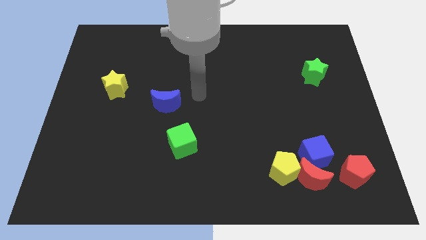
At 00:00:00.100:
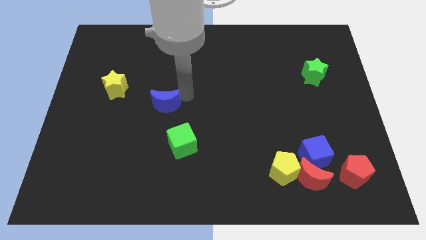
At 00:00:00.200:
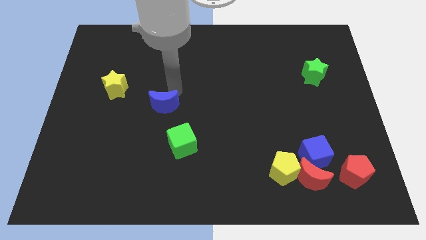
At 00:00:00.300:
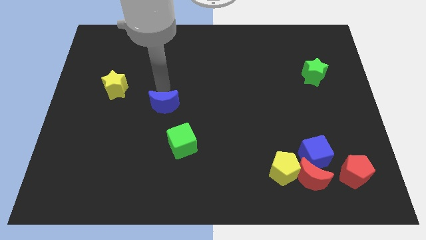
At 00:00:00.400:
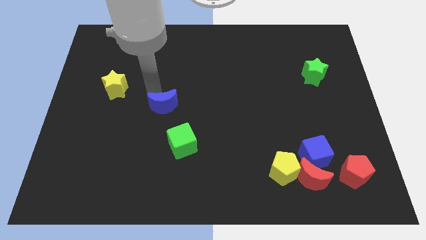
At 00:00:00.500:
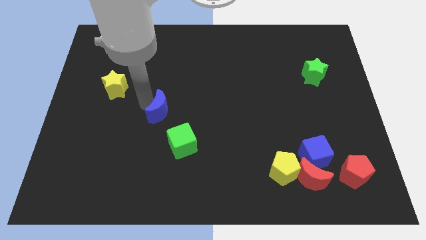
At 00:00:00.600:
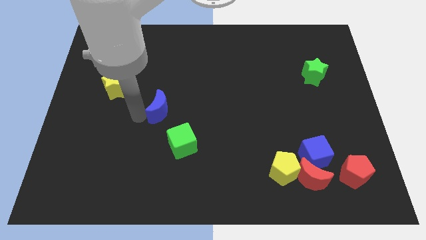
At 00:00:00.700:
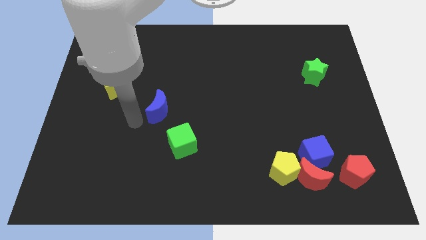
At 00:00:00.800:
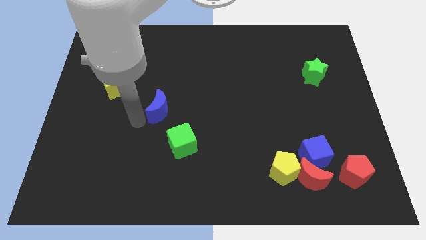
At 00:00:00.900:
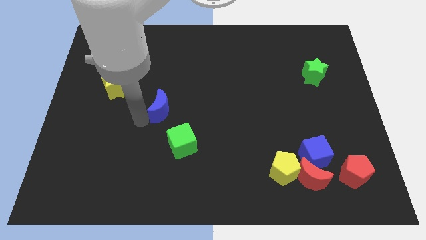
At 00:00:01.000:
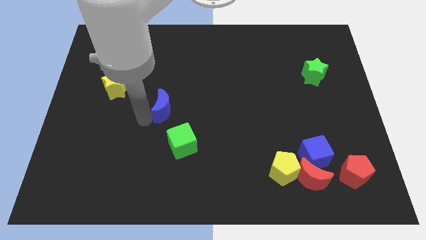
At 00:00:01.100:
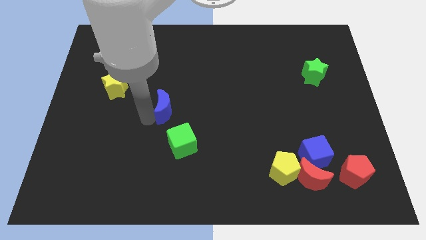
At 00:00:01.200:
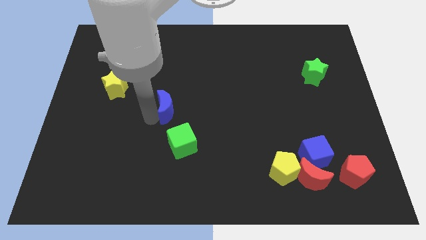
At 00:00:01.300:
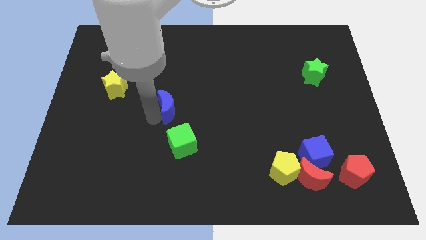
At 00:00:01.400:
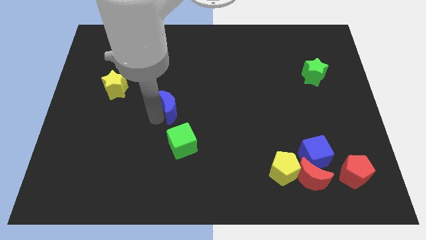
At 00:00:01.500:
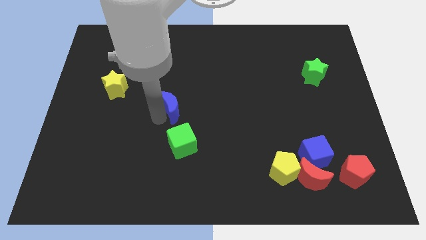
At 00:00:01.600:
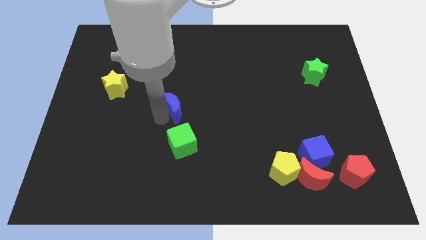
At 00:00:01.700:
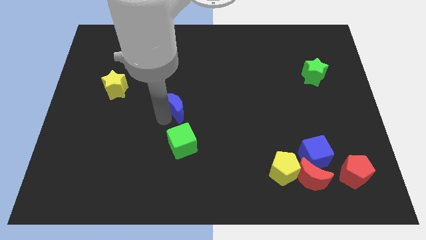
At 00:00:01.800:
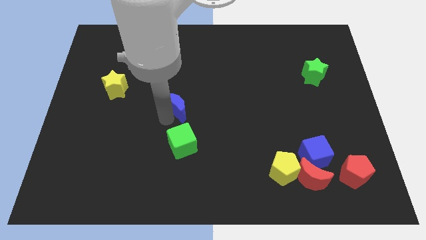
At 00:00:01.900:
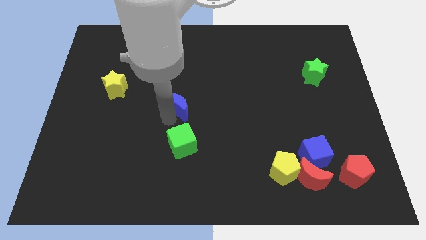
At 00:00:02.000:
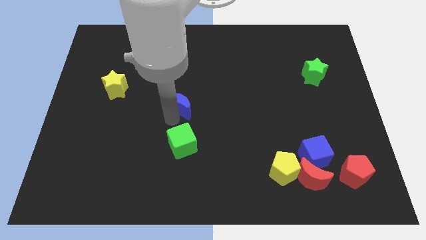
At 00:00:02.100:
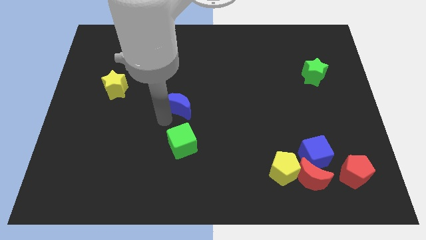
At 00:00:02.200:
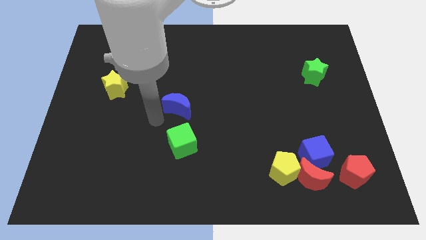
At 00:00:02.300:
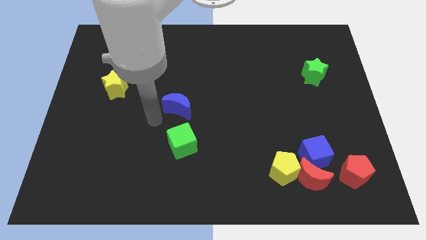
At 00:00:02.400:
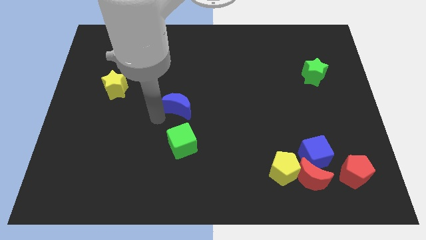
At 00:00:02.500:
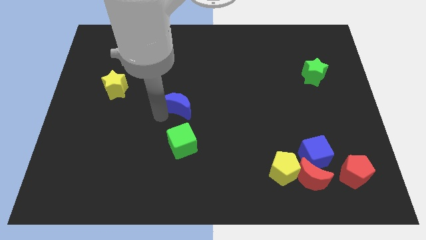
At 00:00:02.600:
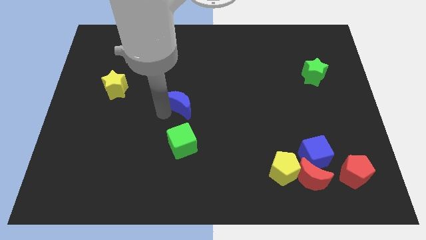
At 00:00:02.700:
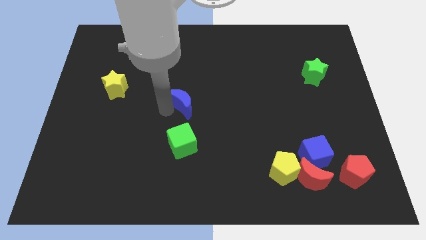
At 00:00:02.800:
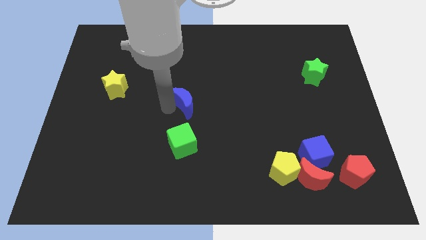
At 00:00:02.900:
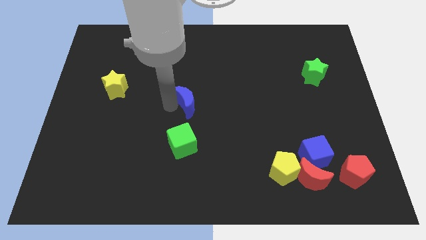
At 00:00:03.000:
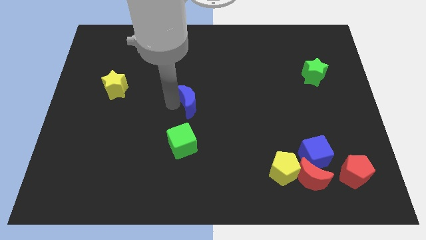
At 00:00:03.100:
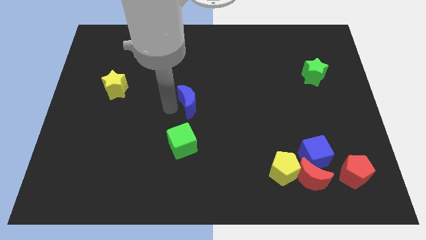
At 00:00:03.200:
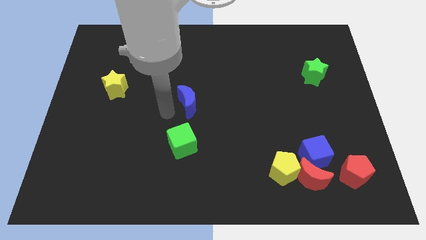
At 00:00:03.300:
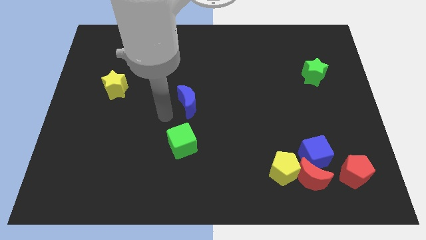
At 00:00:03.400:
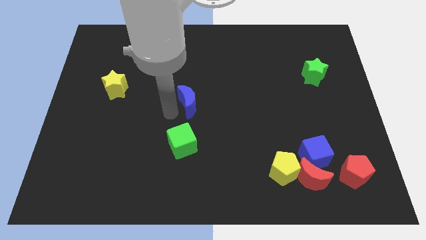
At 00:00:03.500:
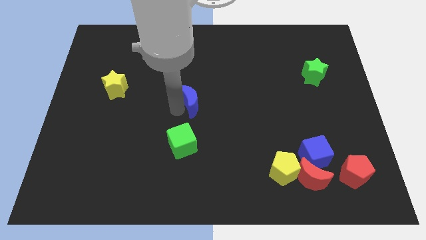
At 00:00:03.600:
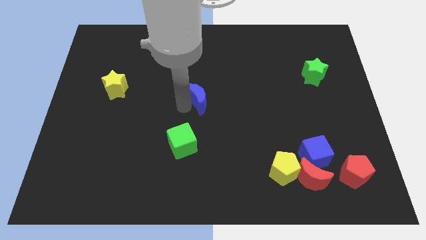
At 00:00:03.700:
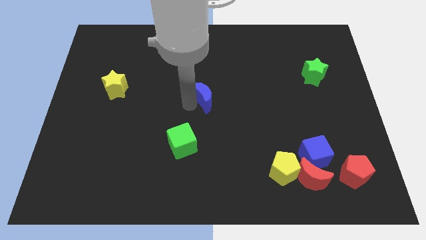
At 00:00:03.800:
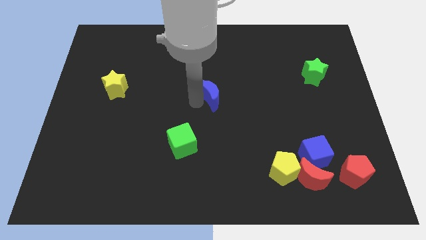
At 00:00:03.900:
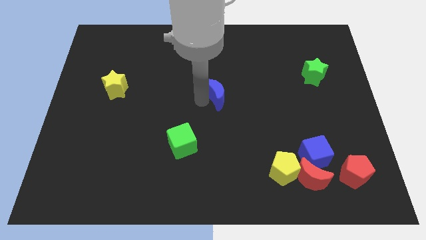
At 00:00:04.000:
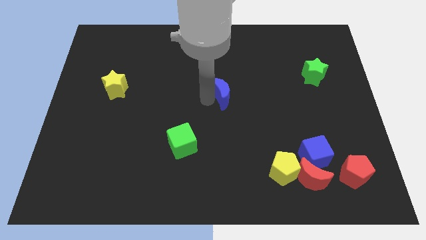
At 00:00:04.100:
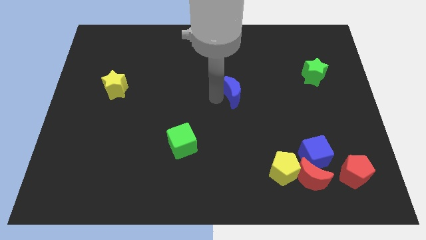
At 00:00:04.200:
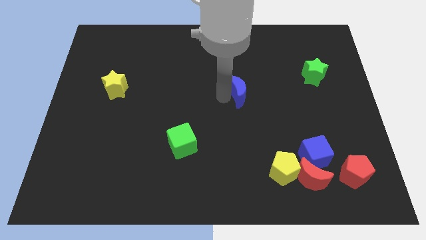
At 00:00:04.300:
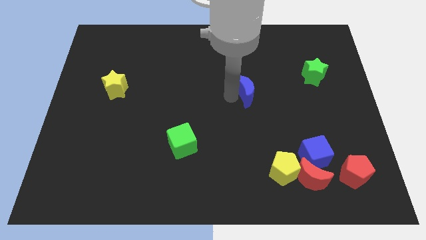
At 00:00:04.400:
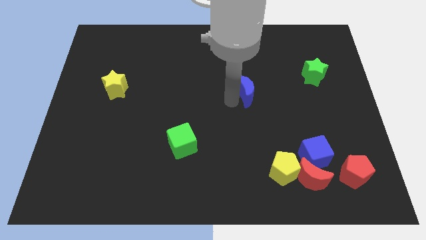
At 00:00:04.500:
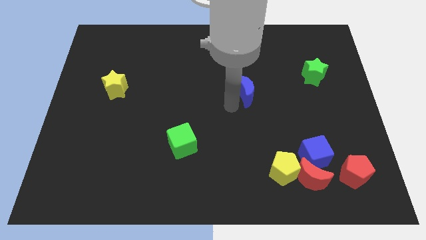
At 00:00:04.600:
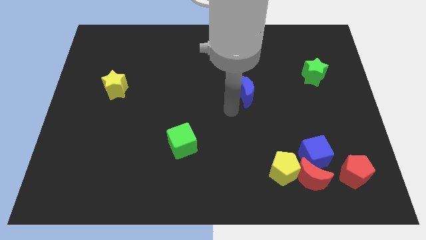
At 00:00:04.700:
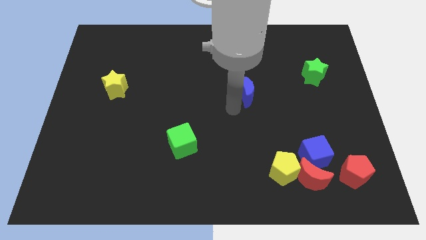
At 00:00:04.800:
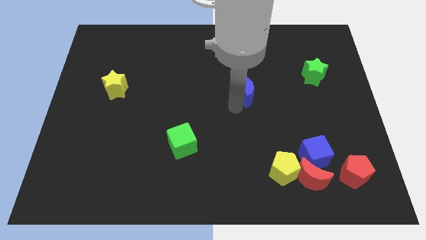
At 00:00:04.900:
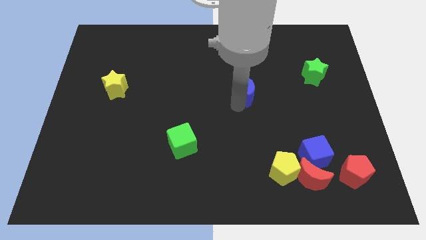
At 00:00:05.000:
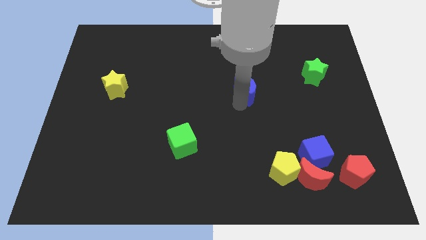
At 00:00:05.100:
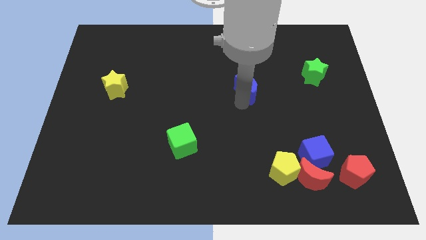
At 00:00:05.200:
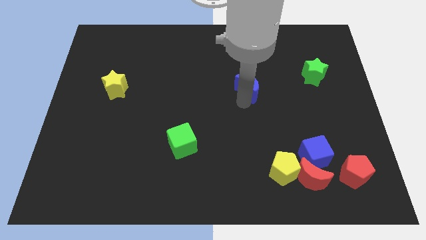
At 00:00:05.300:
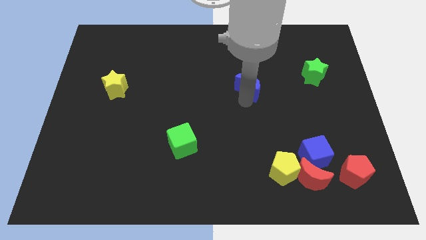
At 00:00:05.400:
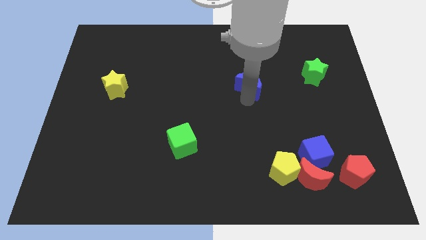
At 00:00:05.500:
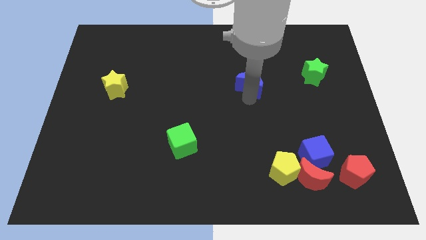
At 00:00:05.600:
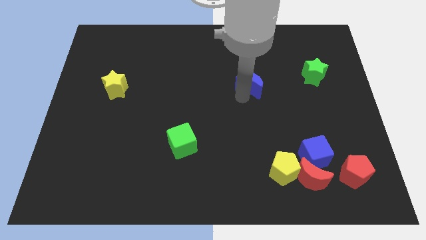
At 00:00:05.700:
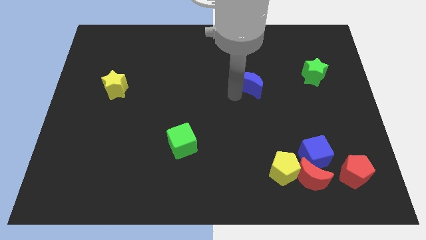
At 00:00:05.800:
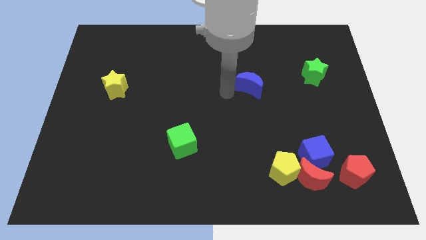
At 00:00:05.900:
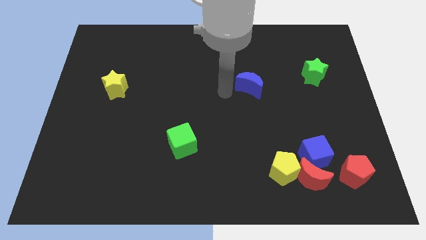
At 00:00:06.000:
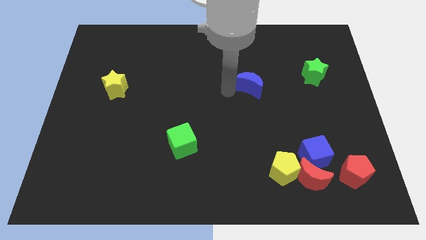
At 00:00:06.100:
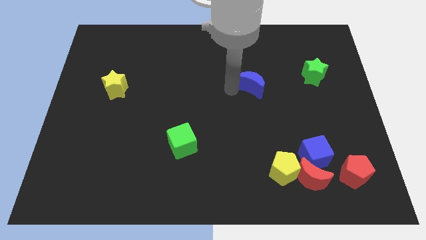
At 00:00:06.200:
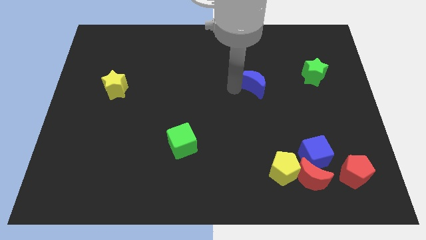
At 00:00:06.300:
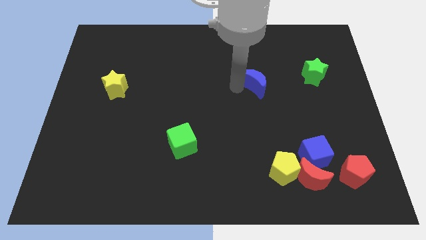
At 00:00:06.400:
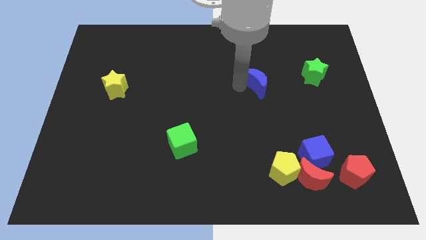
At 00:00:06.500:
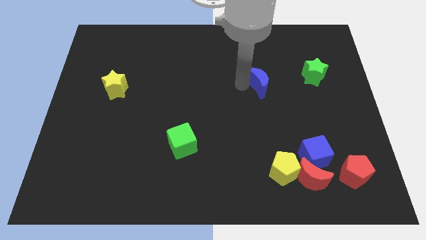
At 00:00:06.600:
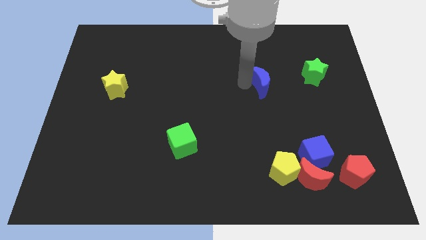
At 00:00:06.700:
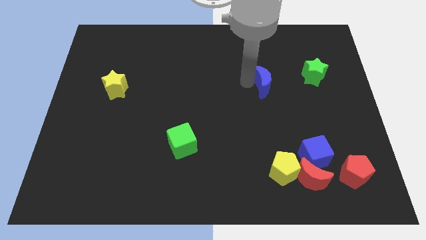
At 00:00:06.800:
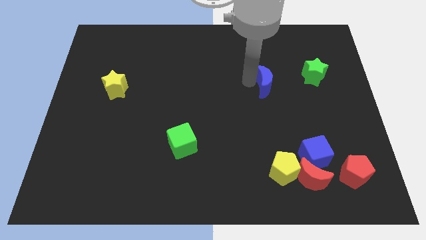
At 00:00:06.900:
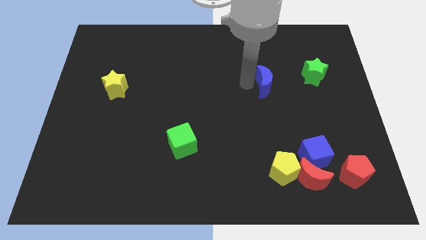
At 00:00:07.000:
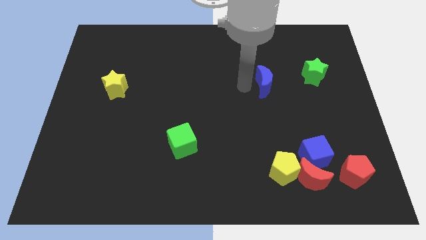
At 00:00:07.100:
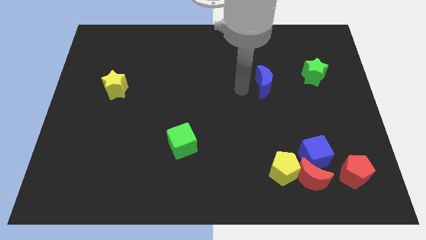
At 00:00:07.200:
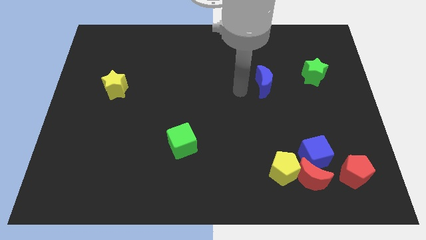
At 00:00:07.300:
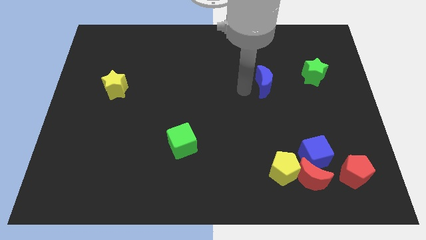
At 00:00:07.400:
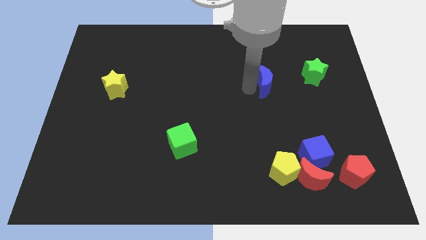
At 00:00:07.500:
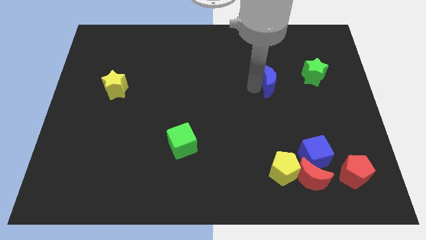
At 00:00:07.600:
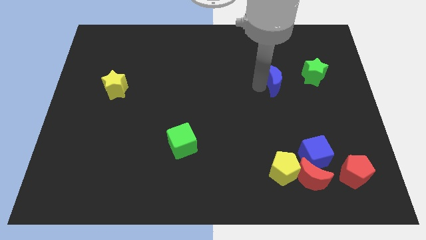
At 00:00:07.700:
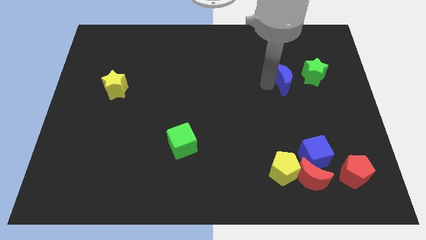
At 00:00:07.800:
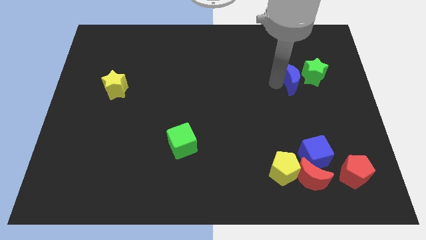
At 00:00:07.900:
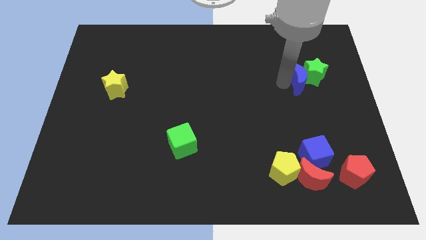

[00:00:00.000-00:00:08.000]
put the blue moon to the green star
